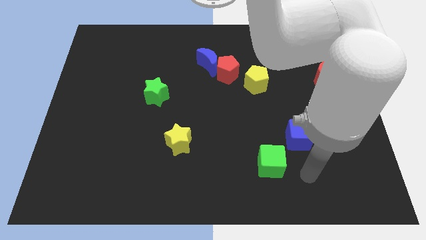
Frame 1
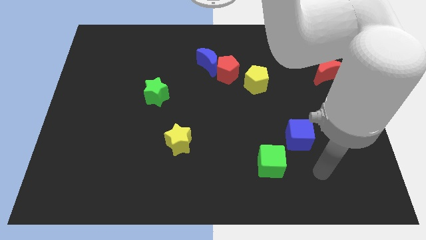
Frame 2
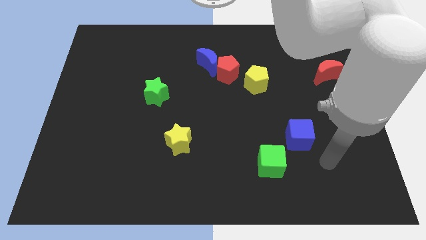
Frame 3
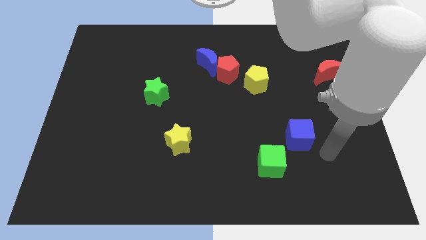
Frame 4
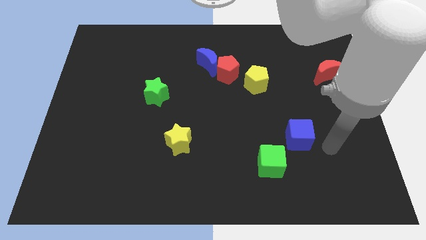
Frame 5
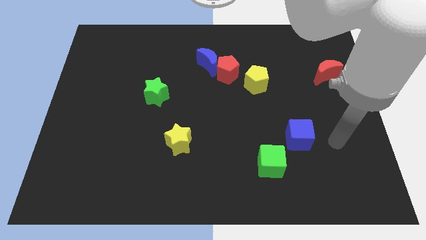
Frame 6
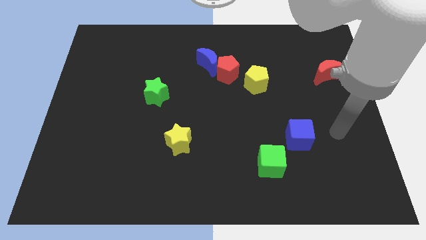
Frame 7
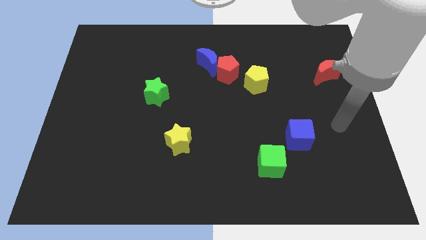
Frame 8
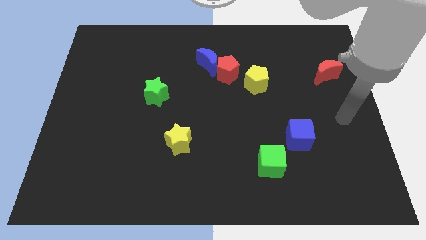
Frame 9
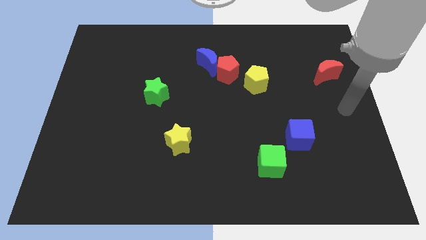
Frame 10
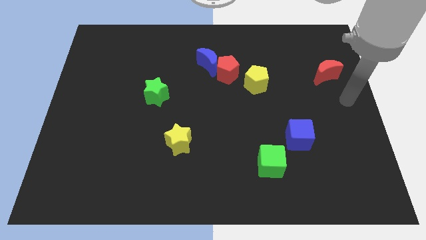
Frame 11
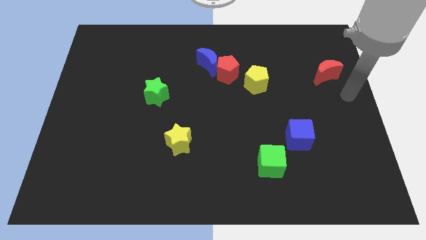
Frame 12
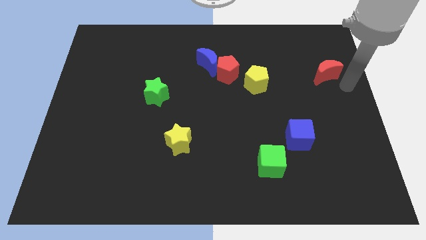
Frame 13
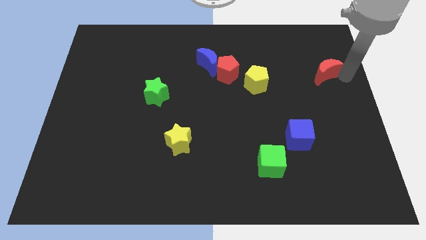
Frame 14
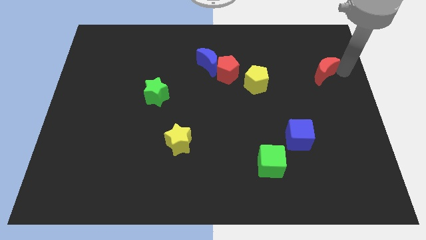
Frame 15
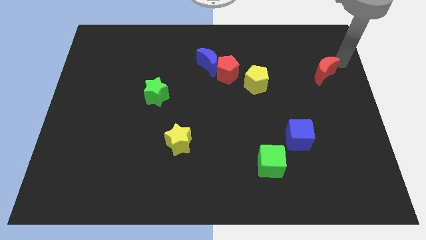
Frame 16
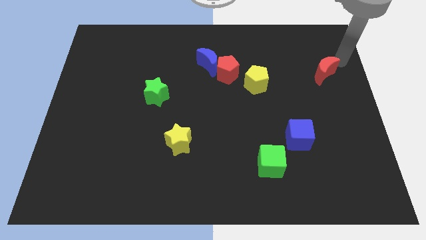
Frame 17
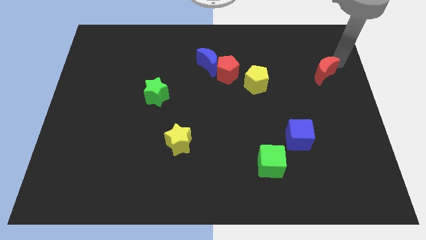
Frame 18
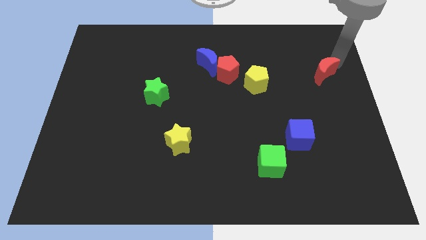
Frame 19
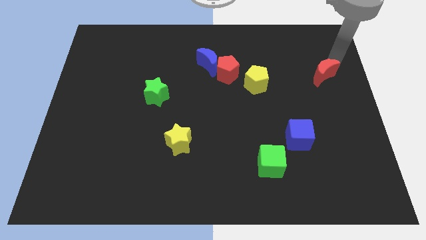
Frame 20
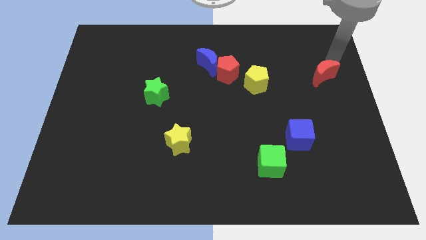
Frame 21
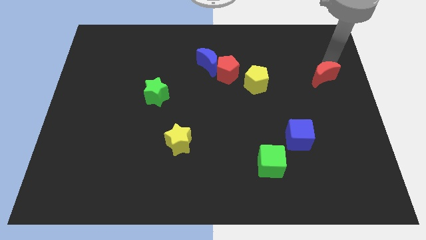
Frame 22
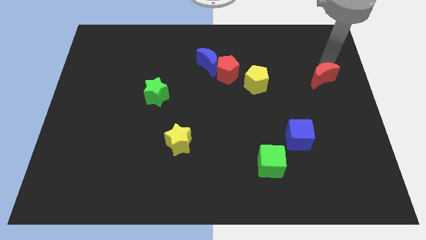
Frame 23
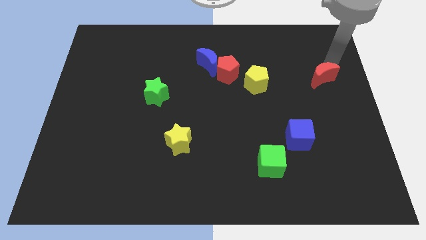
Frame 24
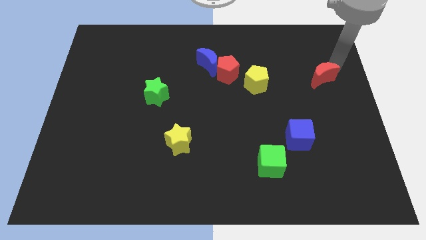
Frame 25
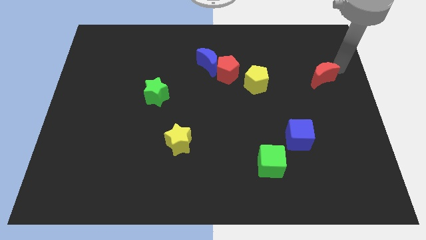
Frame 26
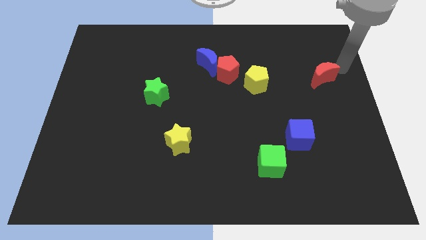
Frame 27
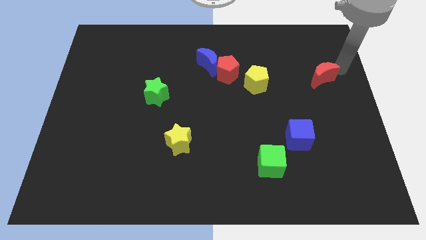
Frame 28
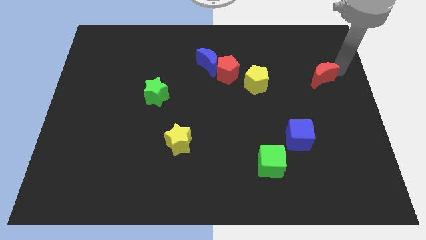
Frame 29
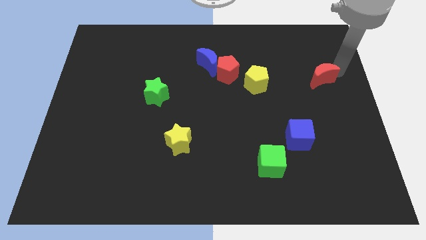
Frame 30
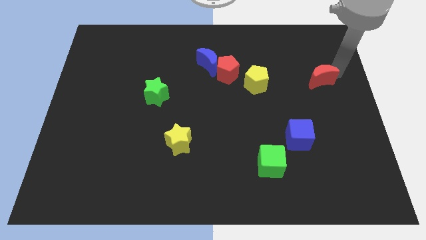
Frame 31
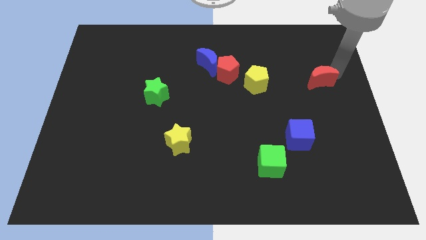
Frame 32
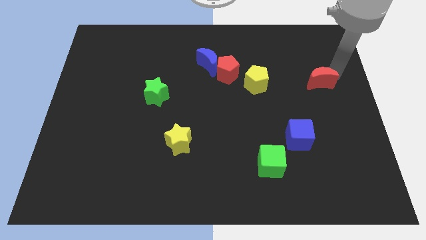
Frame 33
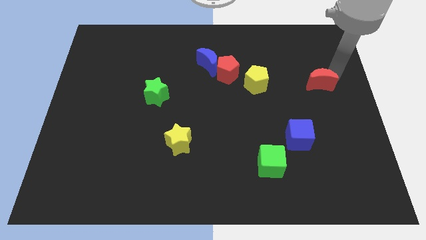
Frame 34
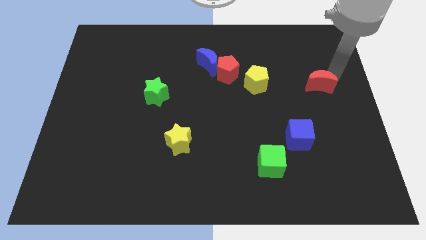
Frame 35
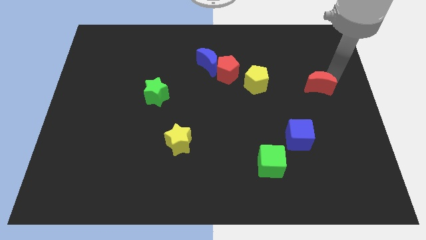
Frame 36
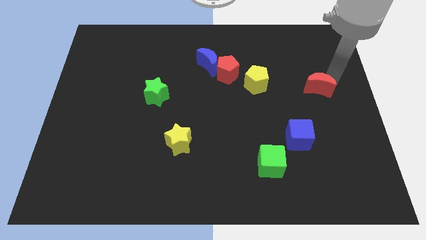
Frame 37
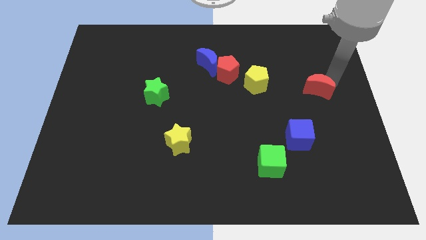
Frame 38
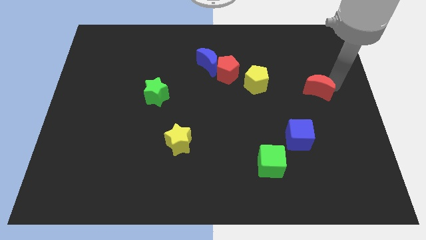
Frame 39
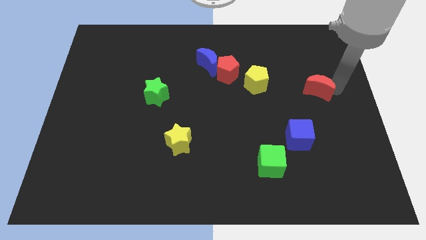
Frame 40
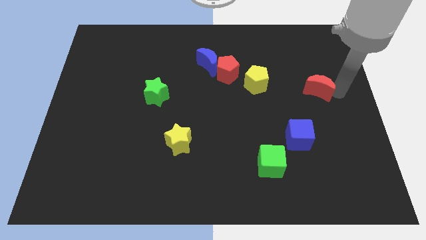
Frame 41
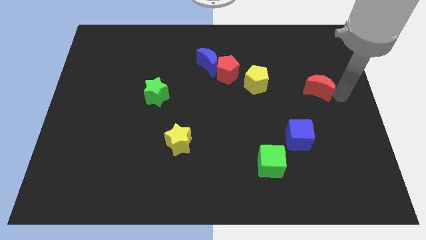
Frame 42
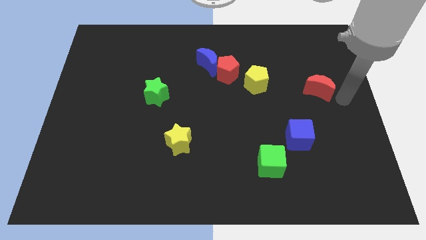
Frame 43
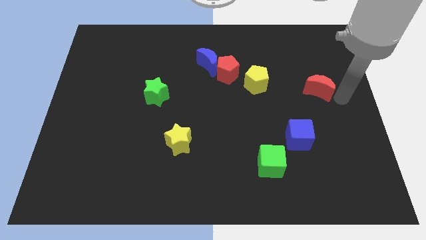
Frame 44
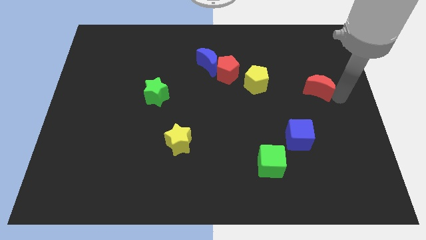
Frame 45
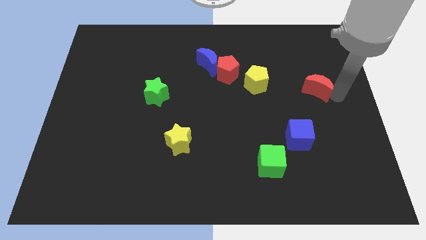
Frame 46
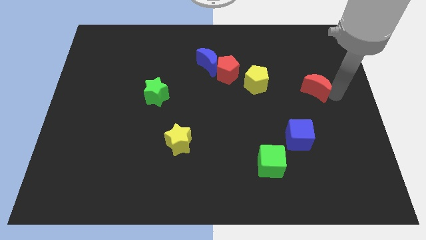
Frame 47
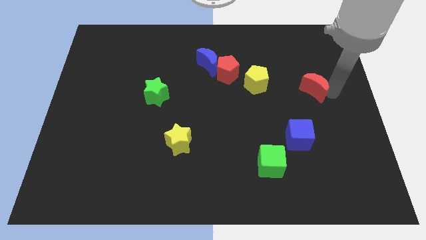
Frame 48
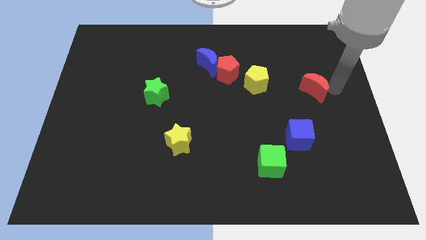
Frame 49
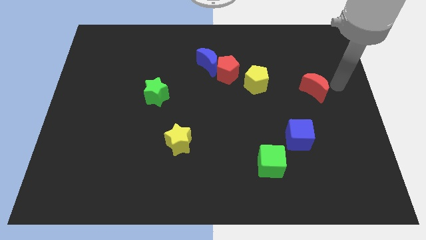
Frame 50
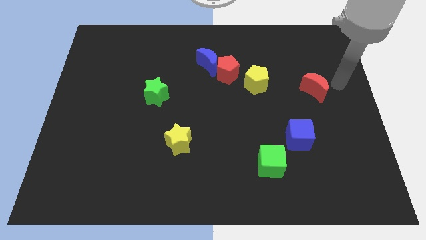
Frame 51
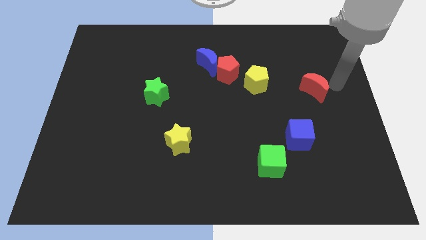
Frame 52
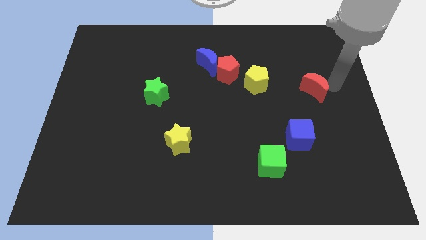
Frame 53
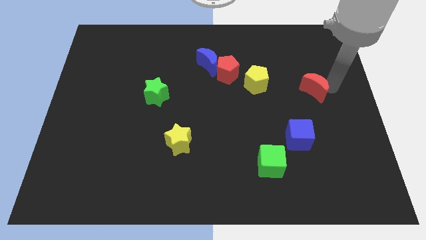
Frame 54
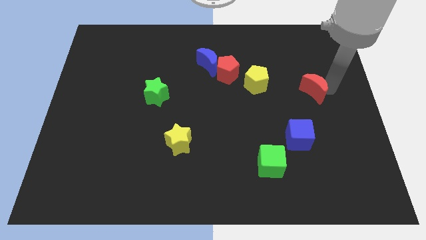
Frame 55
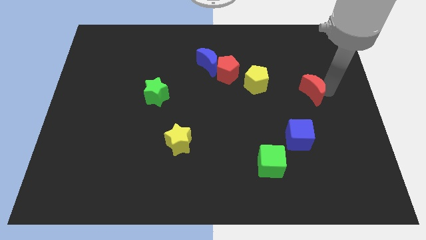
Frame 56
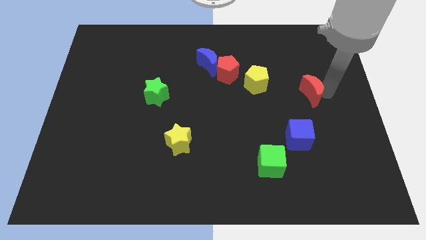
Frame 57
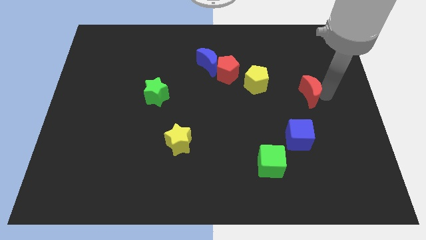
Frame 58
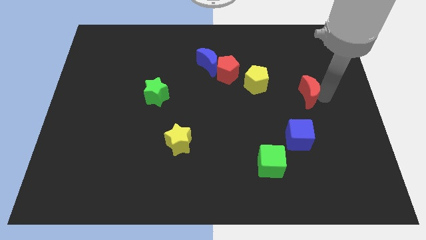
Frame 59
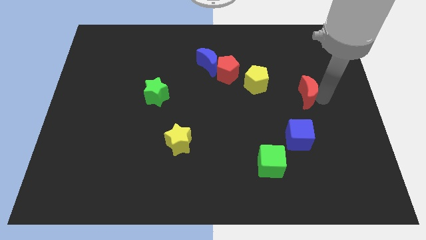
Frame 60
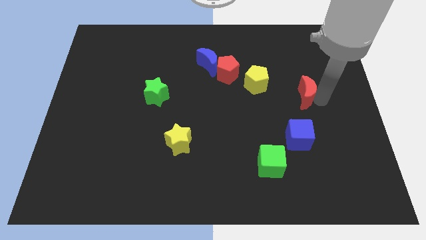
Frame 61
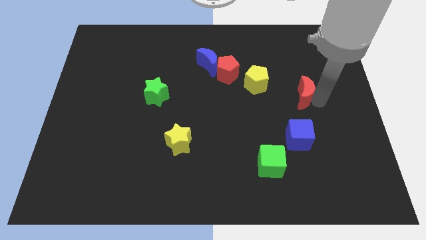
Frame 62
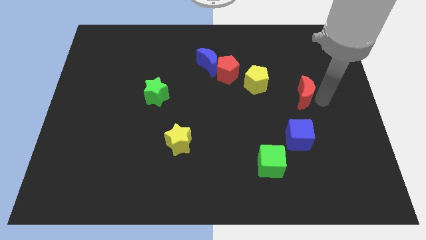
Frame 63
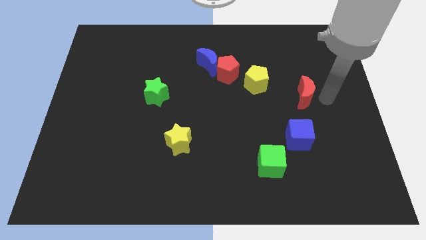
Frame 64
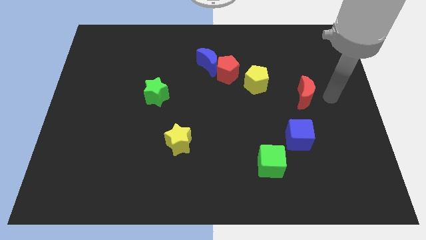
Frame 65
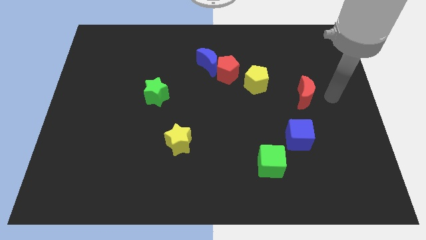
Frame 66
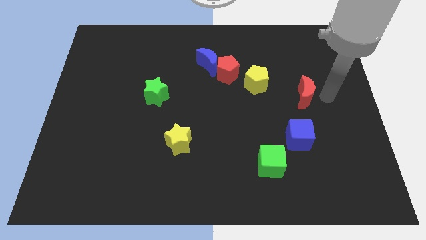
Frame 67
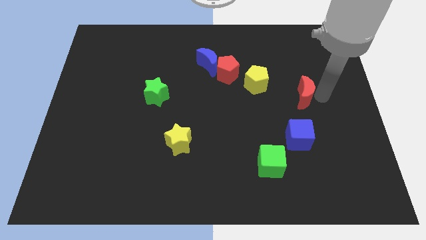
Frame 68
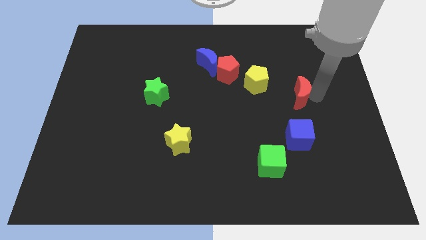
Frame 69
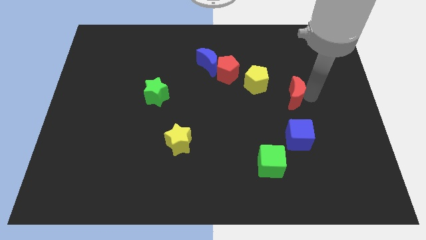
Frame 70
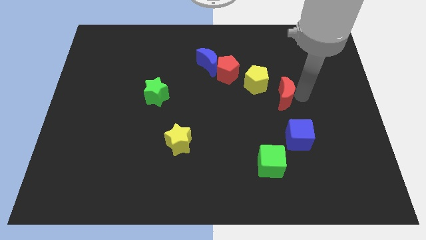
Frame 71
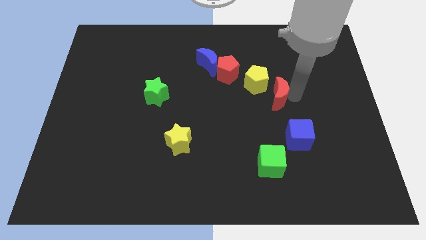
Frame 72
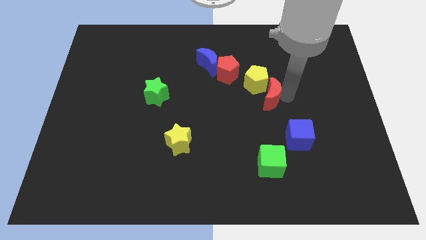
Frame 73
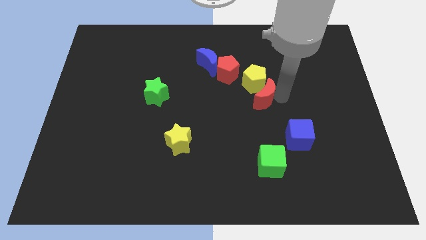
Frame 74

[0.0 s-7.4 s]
put the red moon to the center
